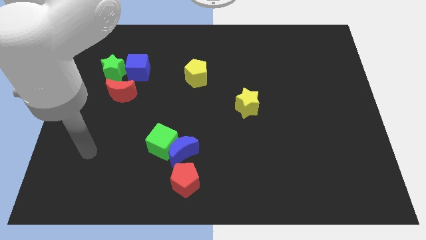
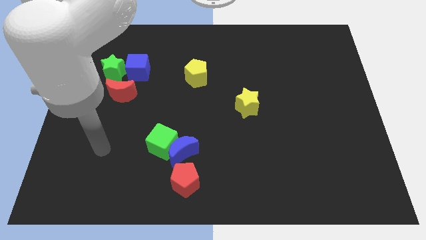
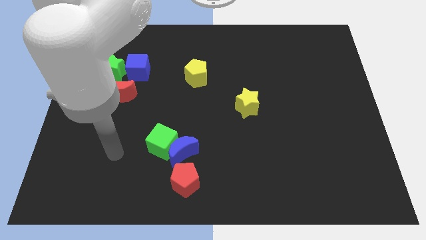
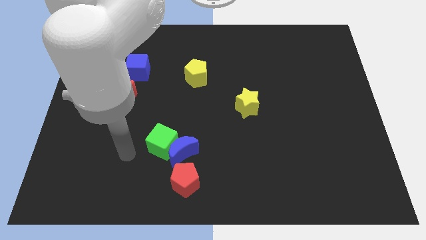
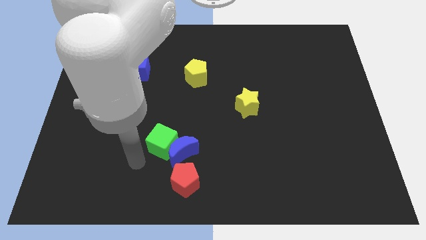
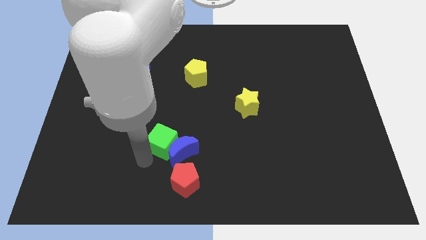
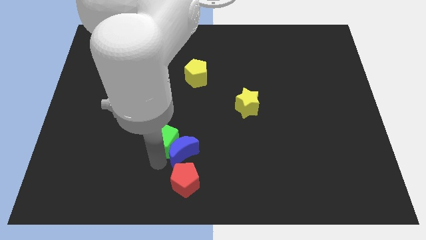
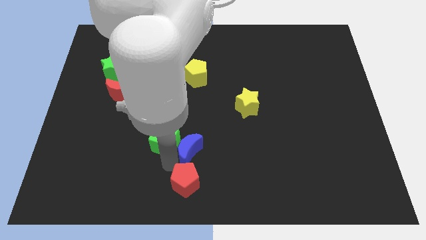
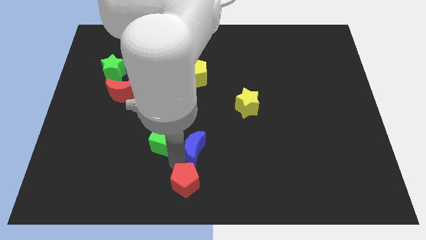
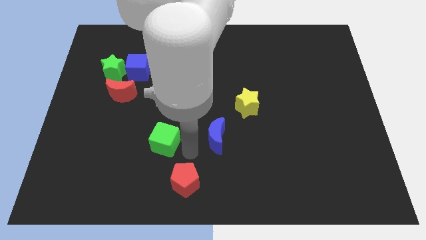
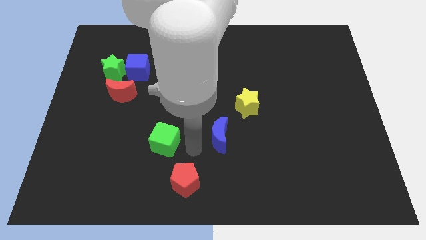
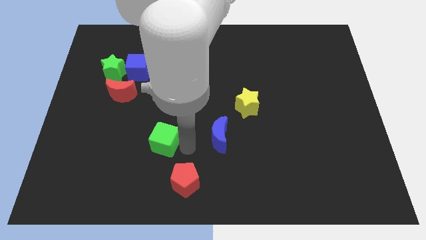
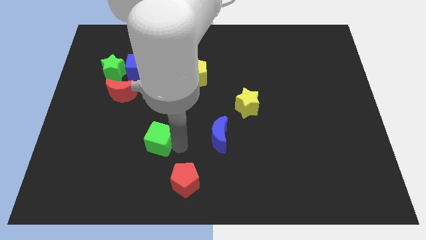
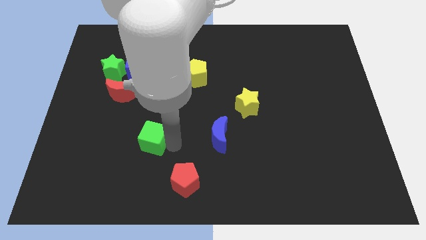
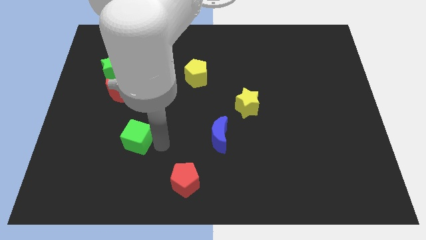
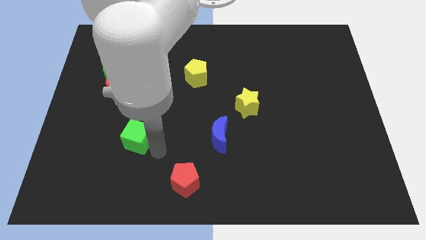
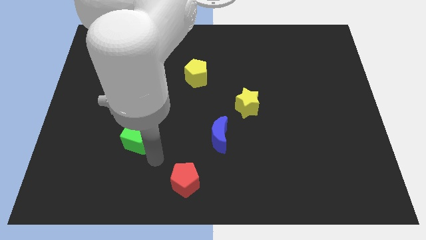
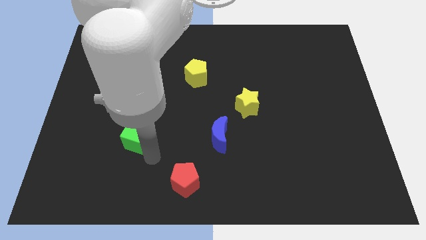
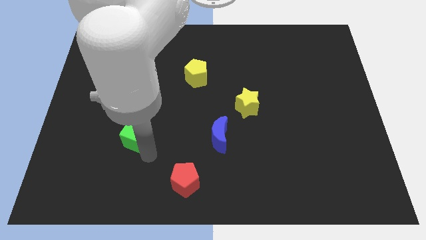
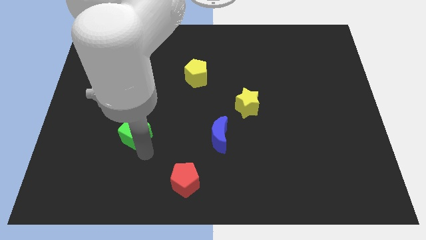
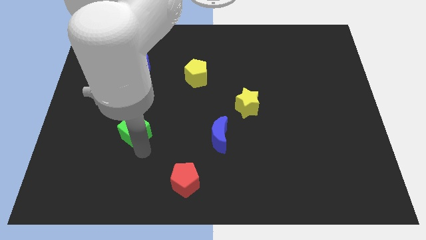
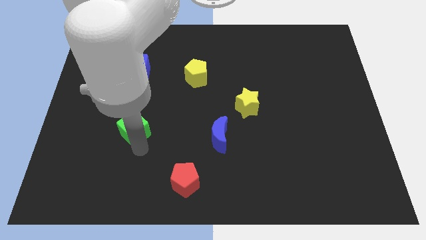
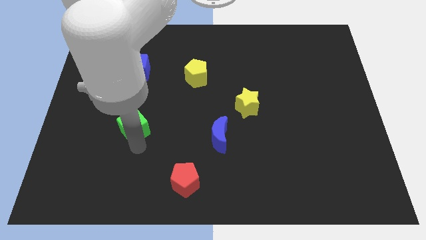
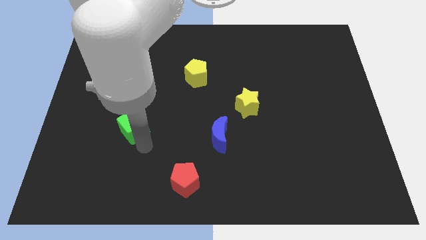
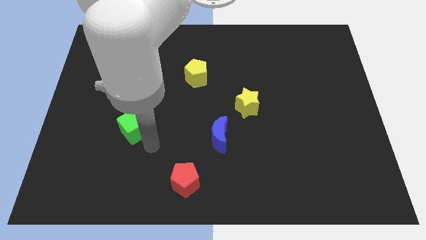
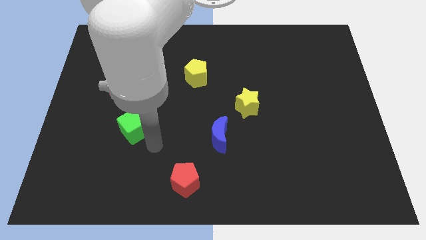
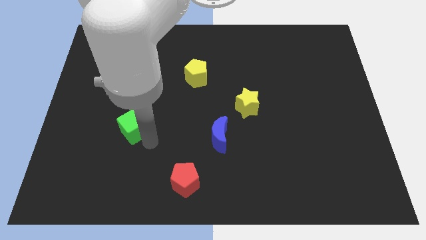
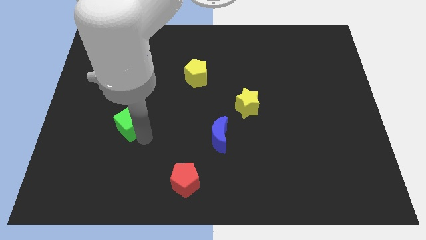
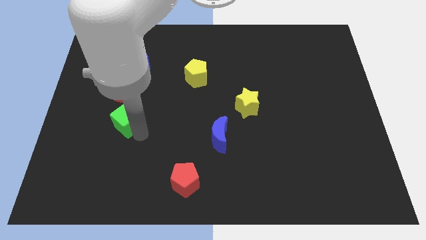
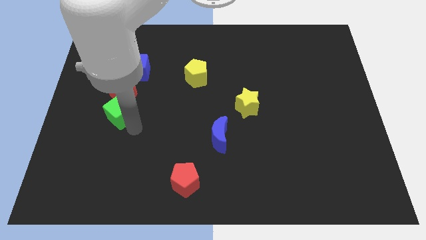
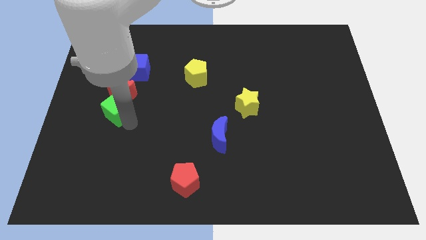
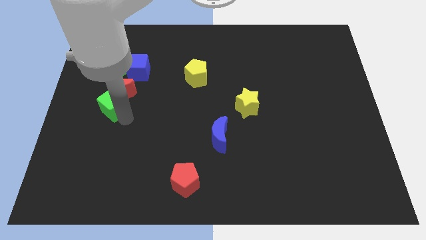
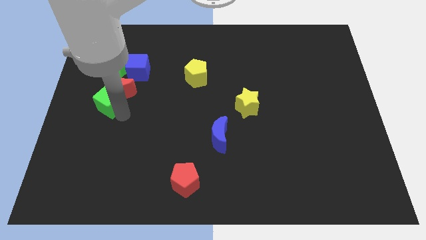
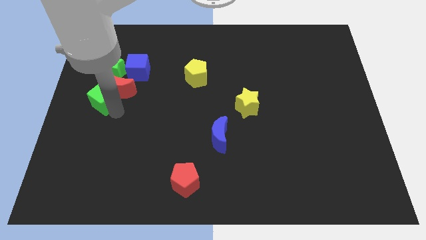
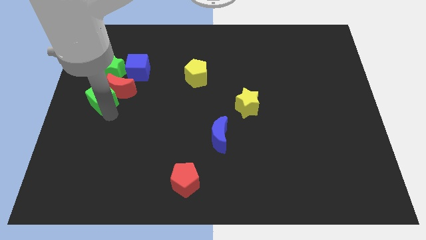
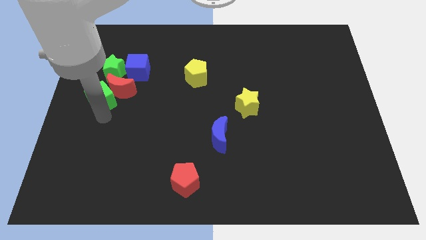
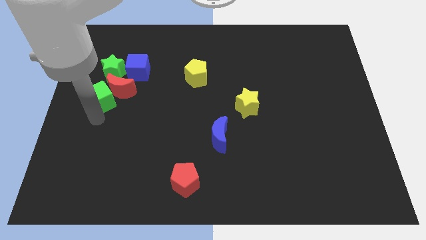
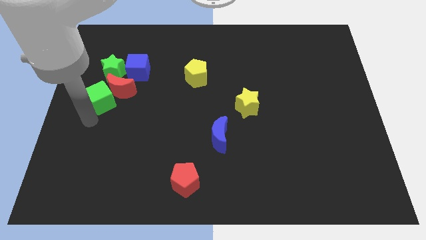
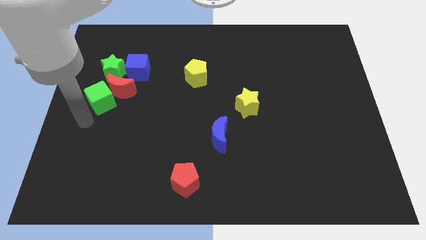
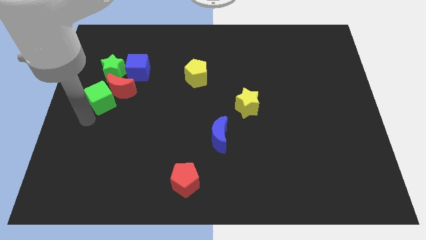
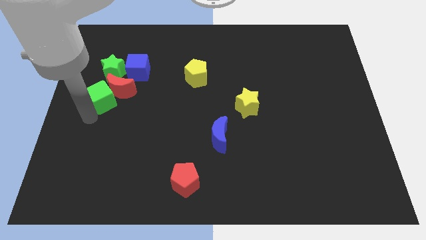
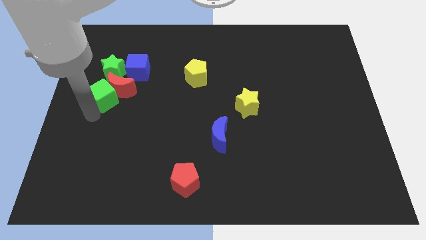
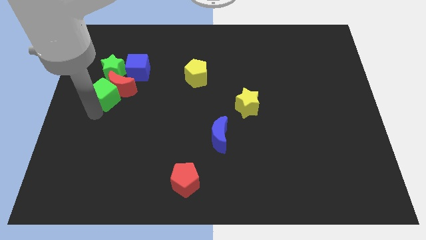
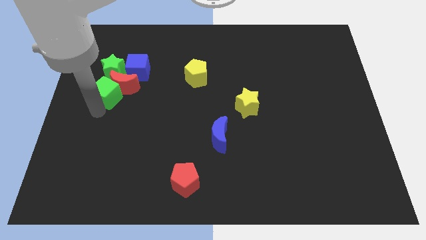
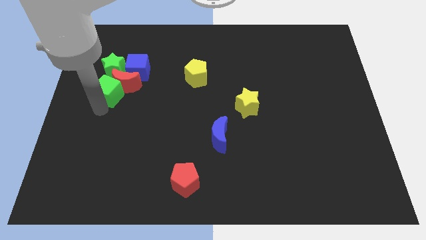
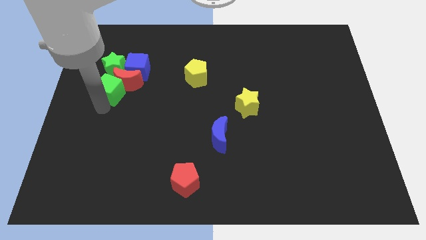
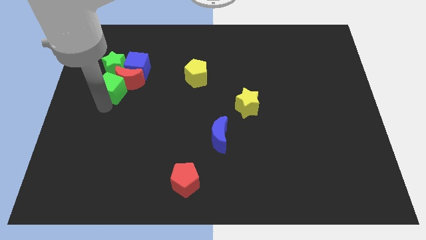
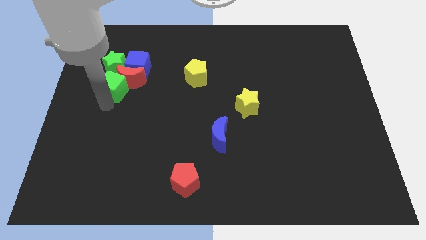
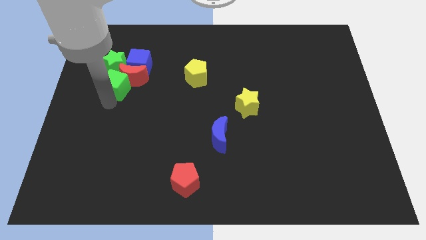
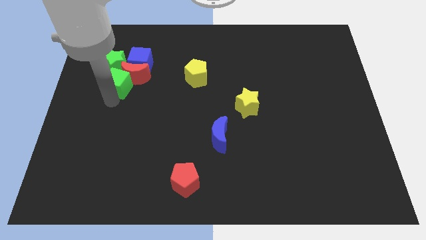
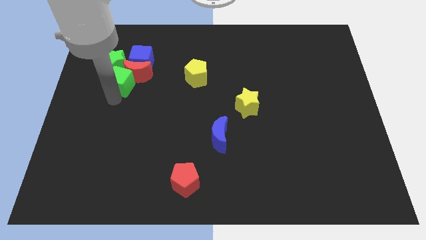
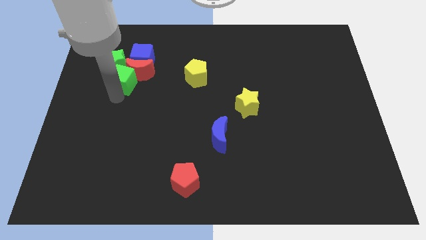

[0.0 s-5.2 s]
move the green cube close to the green star

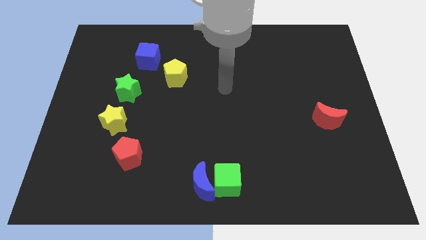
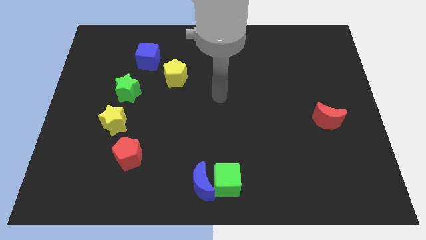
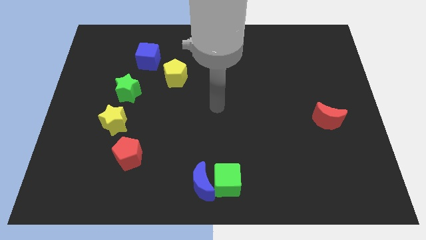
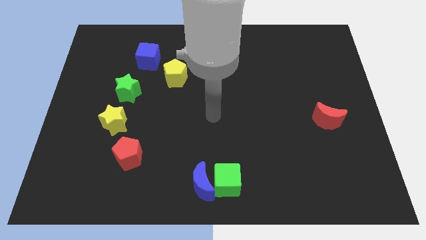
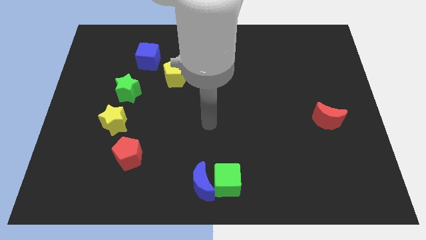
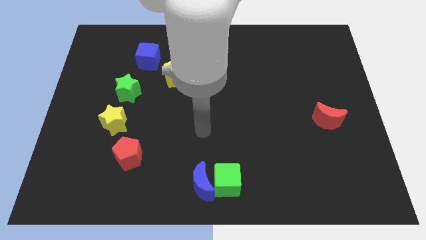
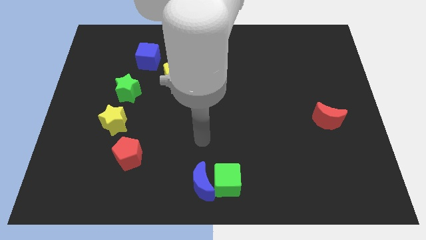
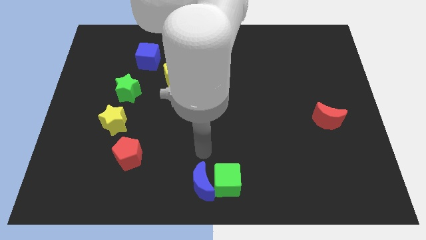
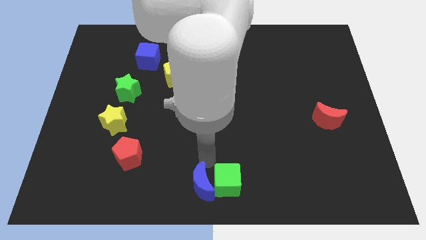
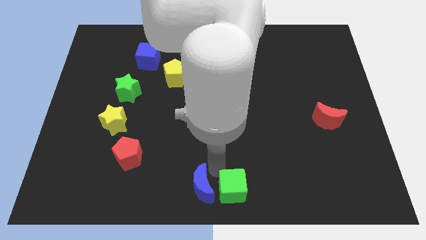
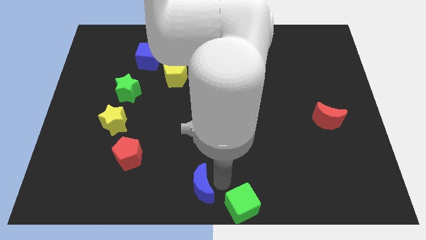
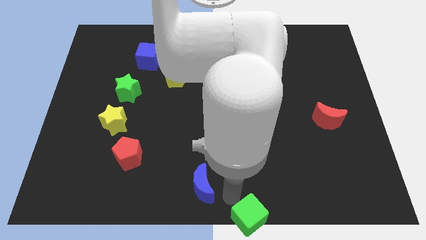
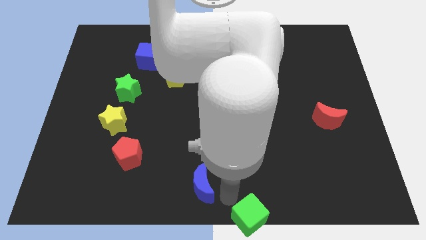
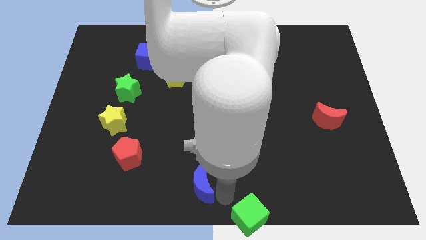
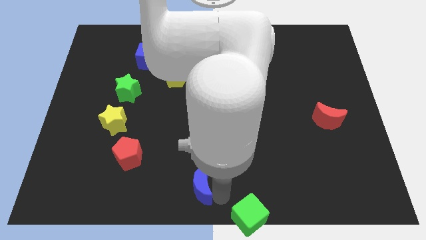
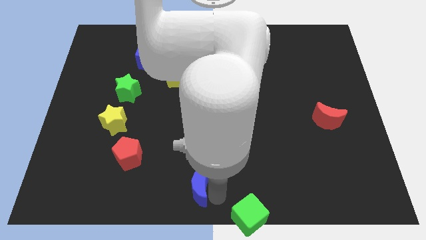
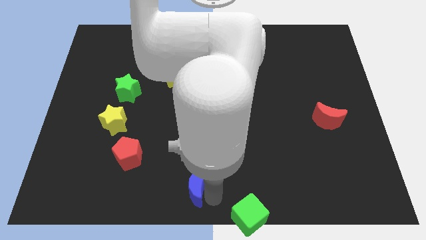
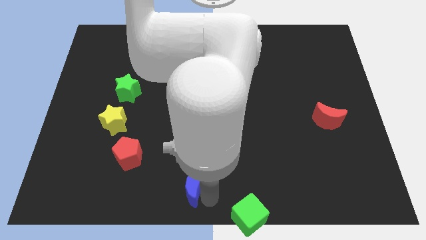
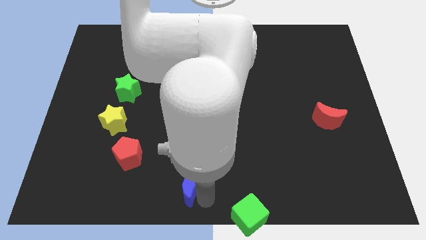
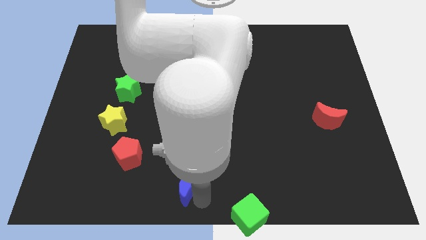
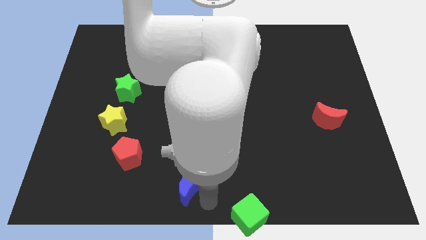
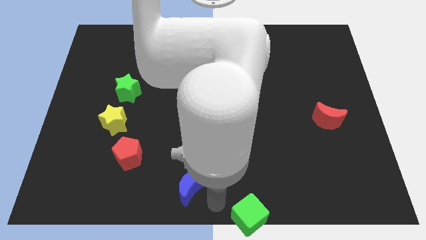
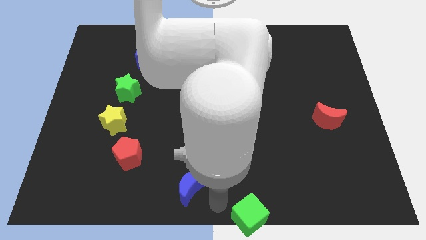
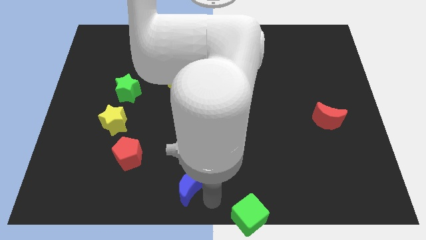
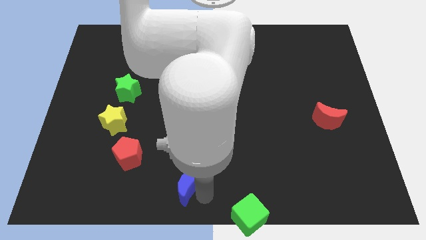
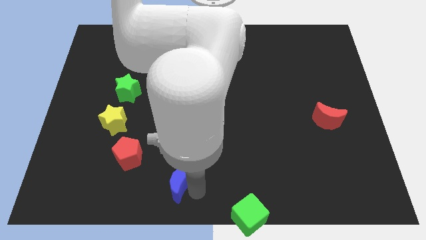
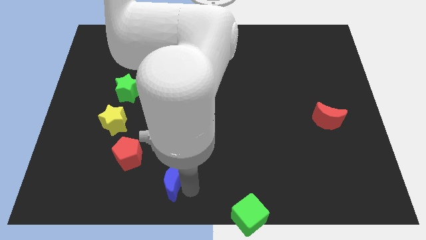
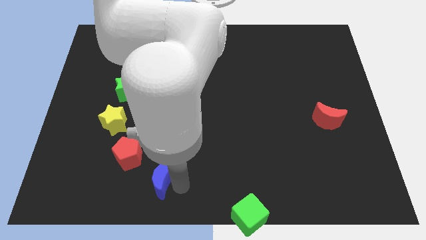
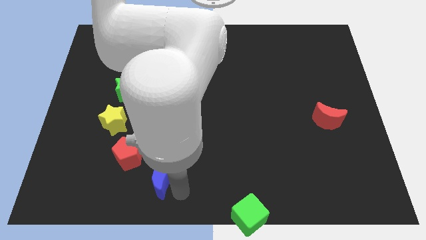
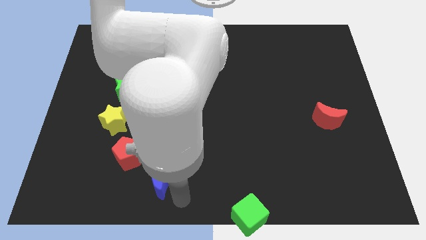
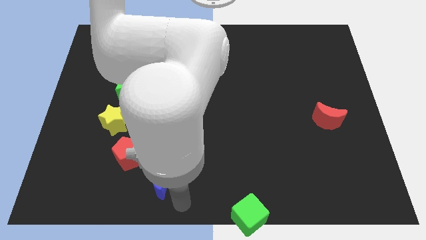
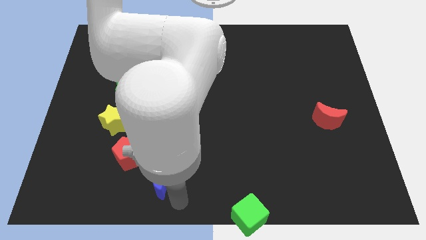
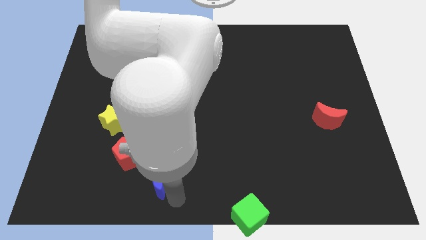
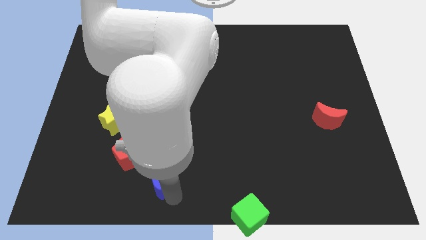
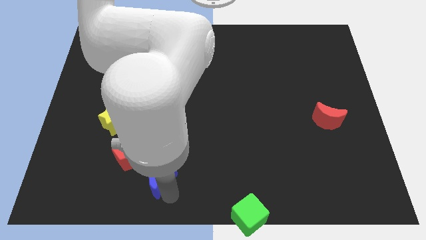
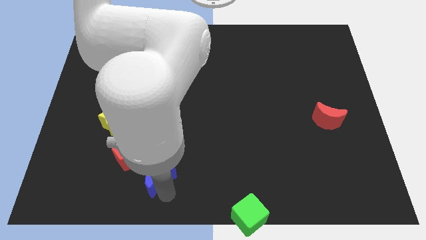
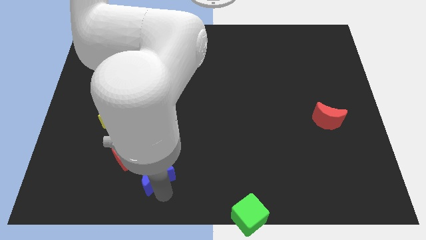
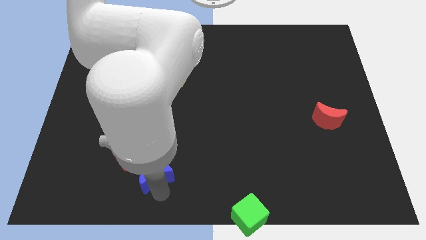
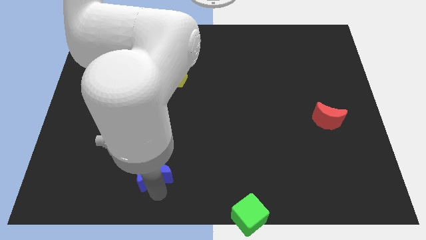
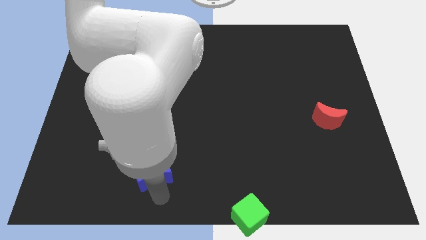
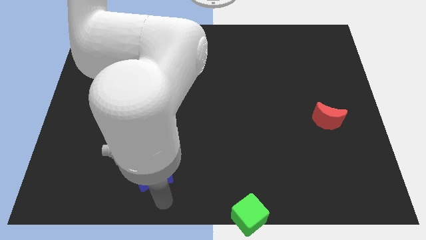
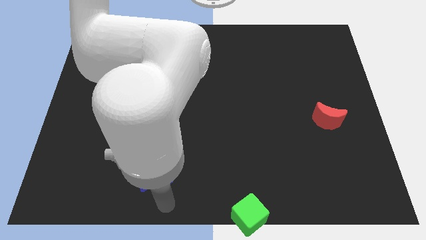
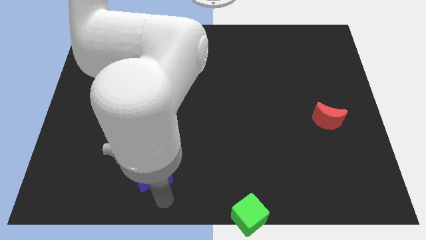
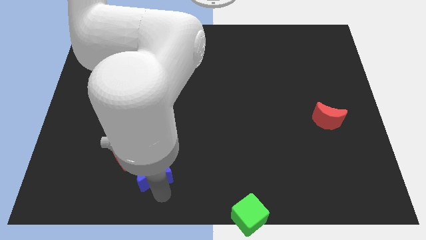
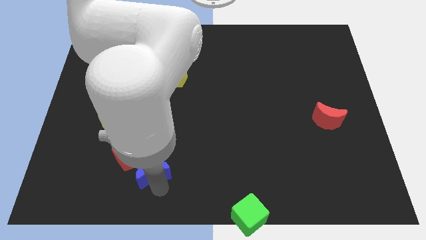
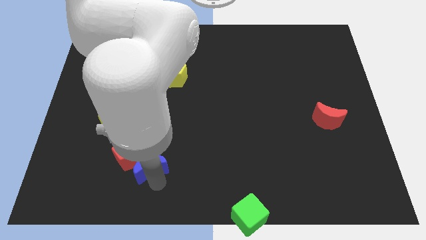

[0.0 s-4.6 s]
move the blue moon towards the red pentagon
